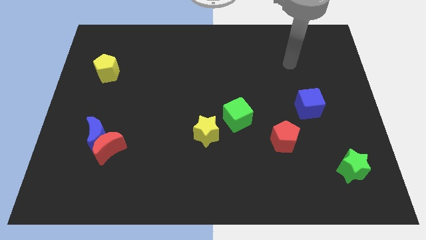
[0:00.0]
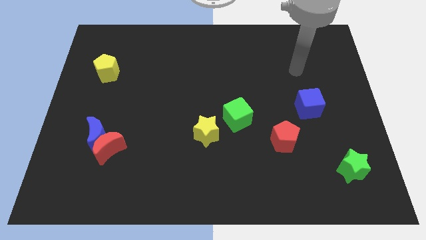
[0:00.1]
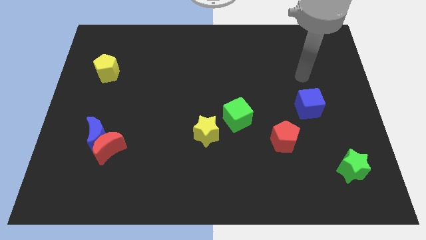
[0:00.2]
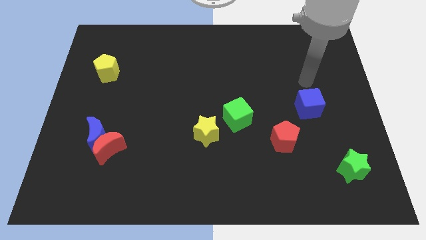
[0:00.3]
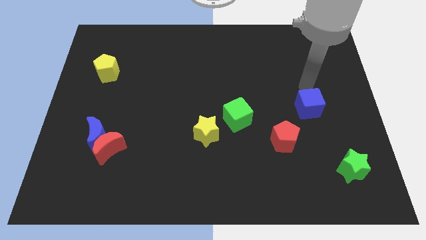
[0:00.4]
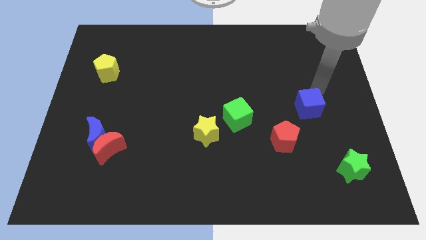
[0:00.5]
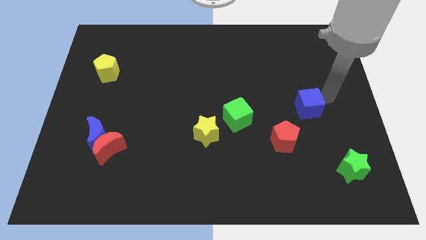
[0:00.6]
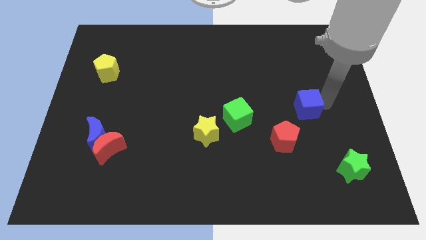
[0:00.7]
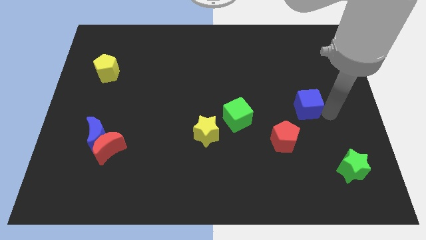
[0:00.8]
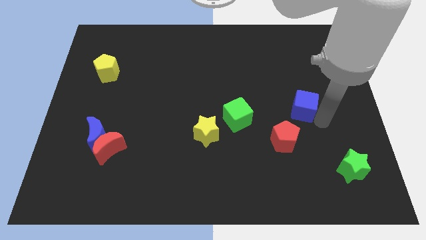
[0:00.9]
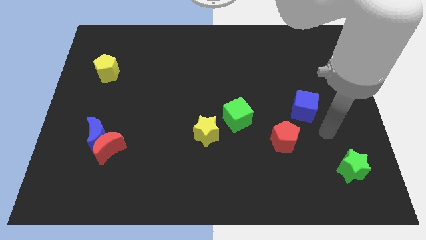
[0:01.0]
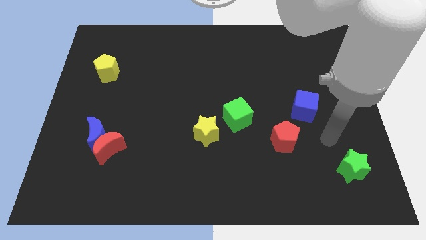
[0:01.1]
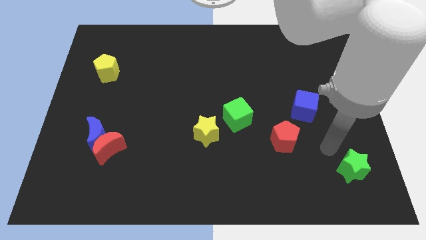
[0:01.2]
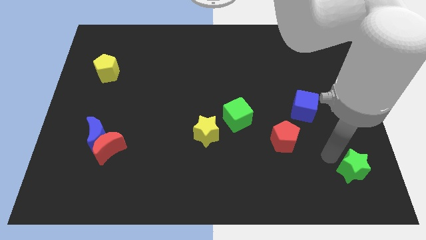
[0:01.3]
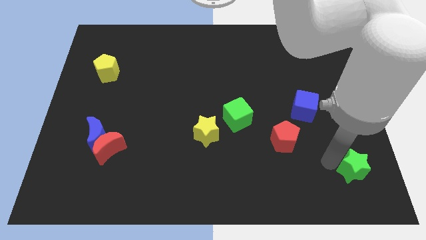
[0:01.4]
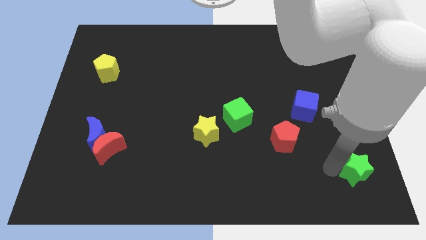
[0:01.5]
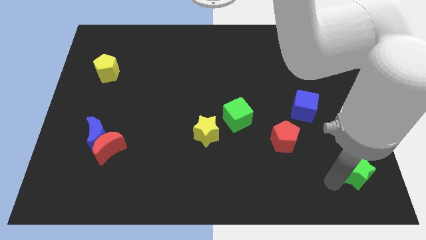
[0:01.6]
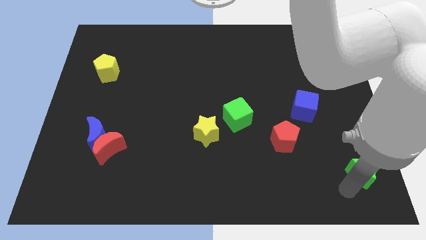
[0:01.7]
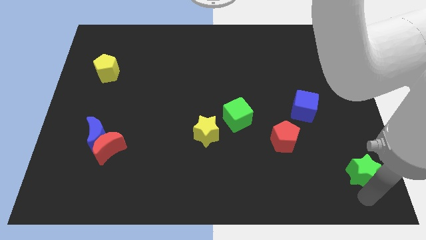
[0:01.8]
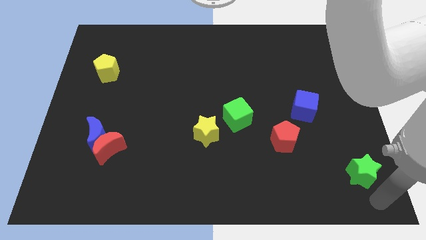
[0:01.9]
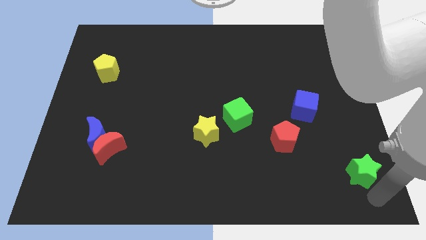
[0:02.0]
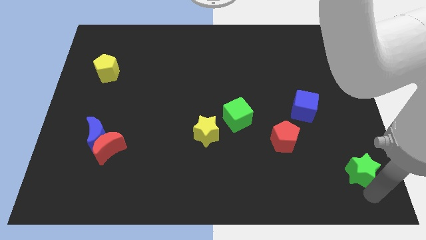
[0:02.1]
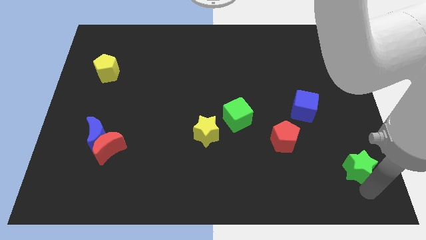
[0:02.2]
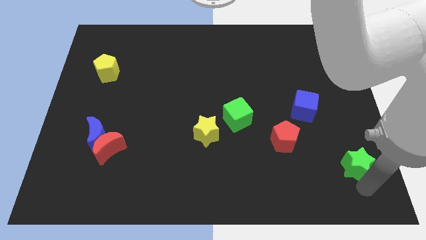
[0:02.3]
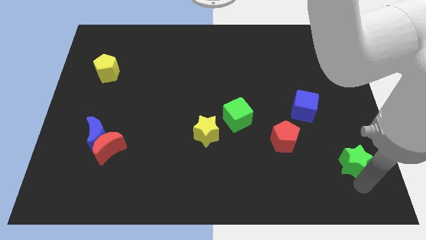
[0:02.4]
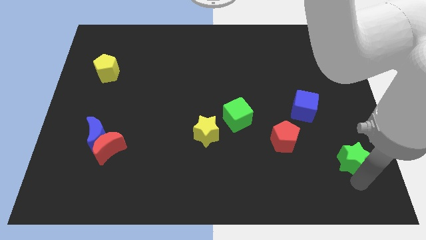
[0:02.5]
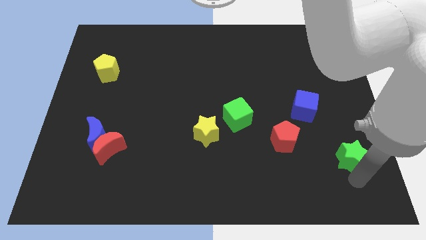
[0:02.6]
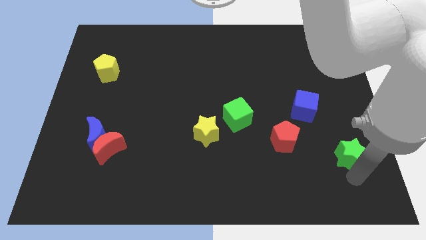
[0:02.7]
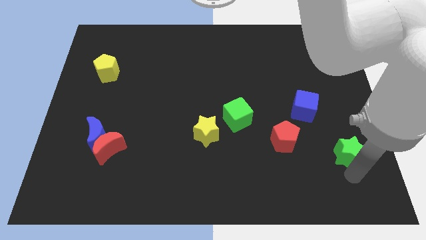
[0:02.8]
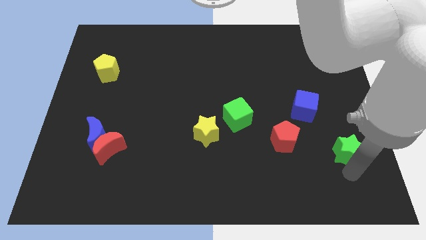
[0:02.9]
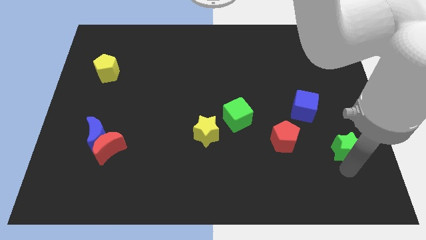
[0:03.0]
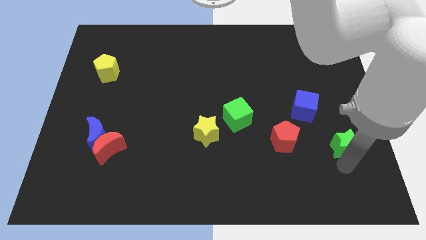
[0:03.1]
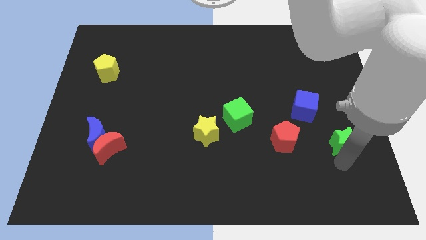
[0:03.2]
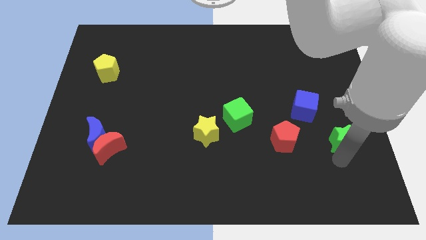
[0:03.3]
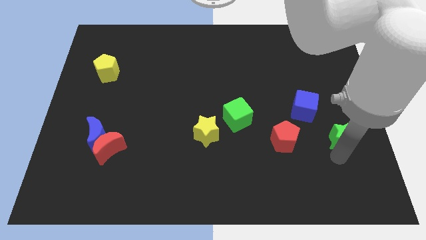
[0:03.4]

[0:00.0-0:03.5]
slightly move the green star upwards

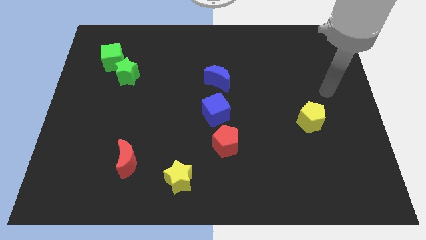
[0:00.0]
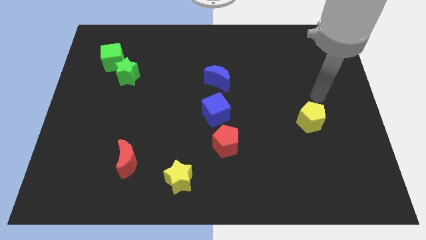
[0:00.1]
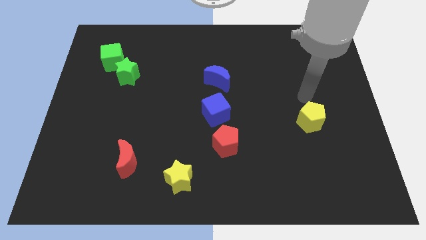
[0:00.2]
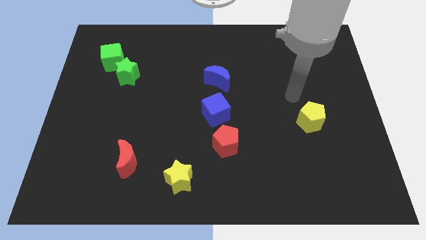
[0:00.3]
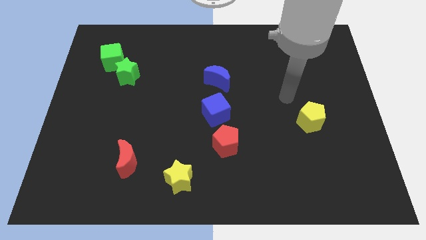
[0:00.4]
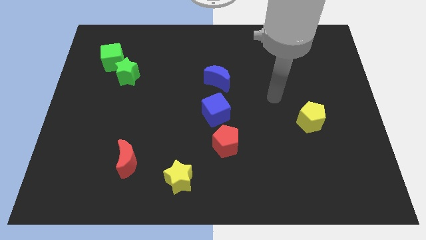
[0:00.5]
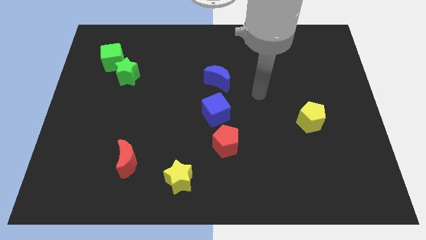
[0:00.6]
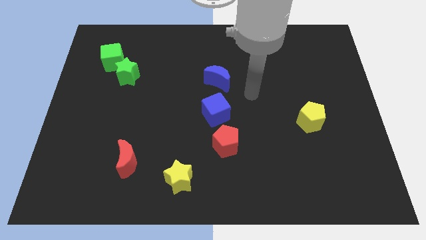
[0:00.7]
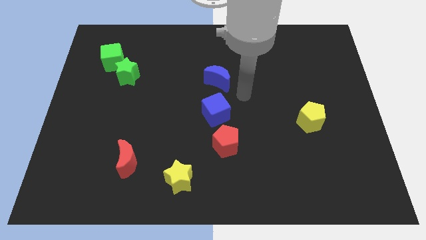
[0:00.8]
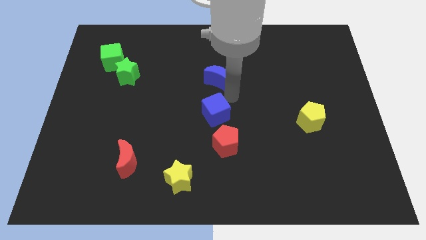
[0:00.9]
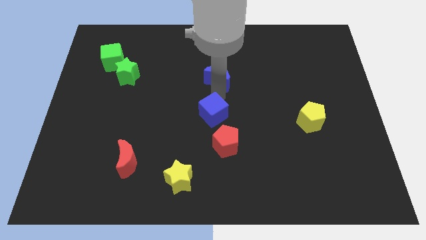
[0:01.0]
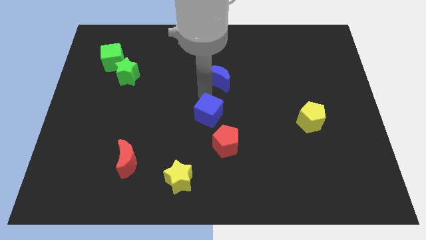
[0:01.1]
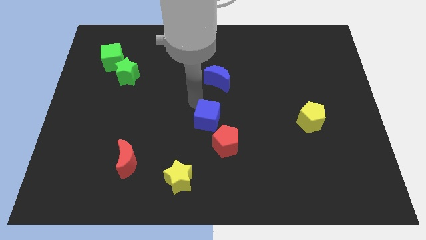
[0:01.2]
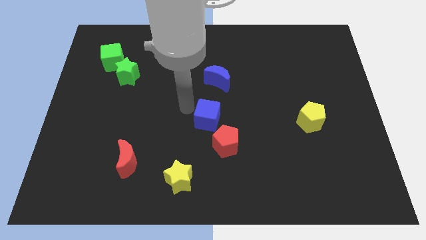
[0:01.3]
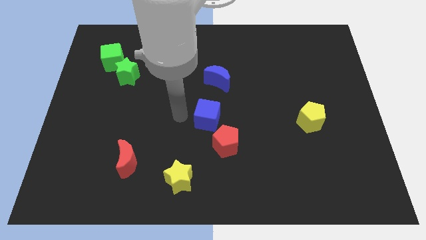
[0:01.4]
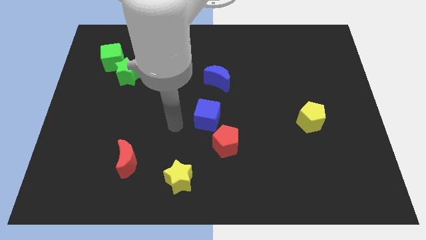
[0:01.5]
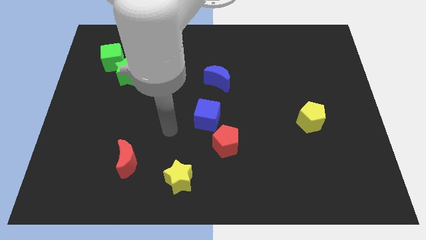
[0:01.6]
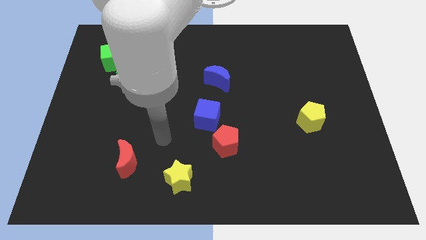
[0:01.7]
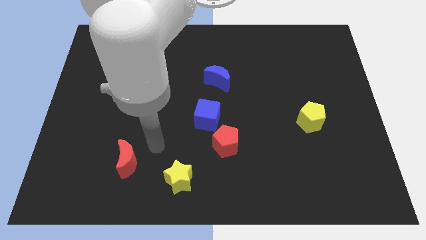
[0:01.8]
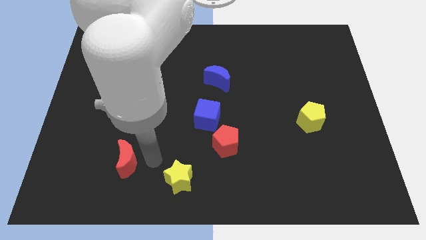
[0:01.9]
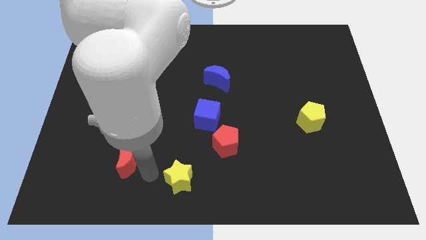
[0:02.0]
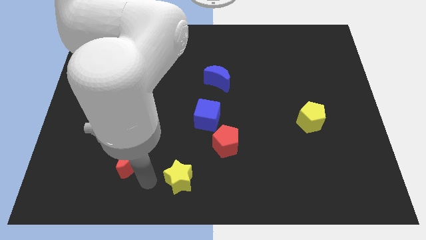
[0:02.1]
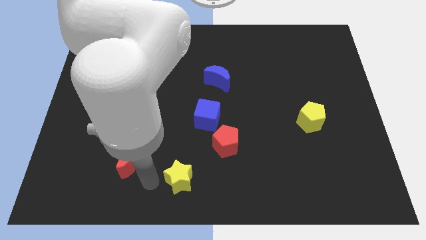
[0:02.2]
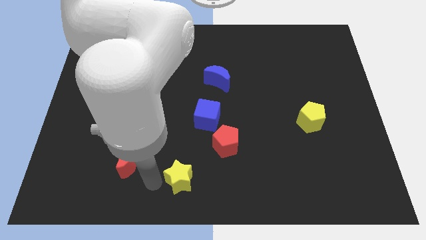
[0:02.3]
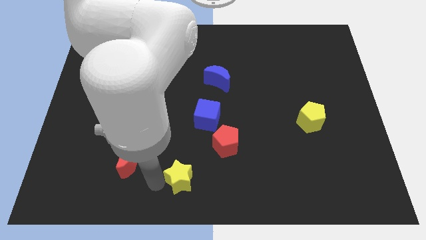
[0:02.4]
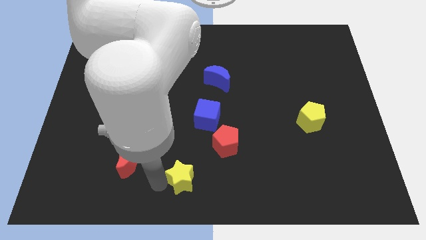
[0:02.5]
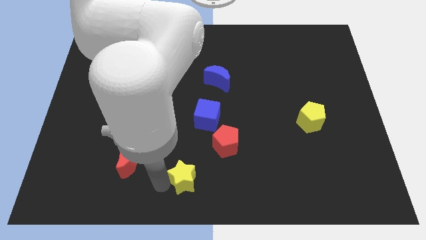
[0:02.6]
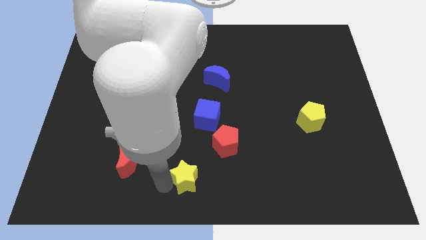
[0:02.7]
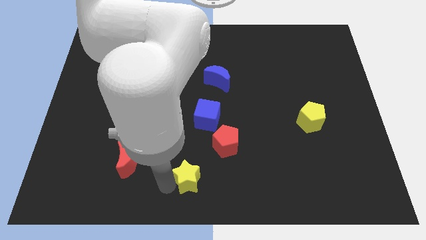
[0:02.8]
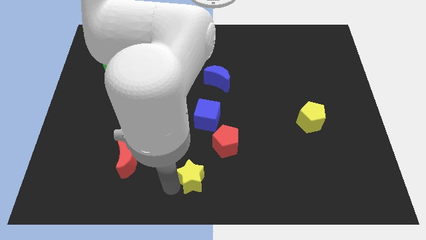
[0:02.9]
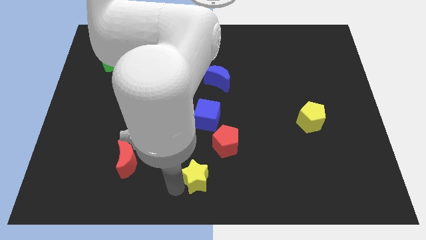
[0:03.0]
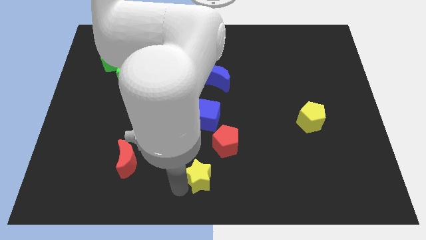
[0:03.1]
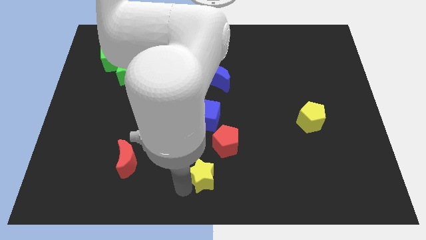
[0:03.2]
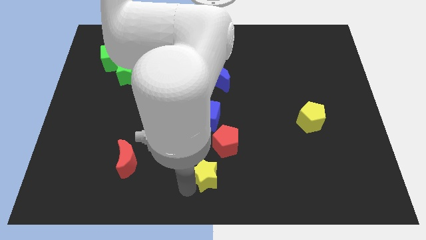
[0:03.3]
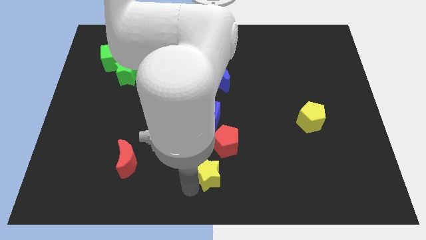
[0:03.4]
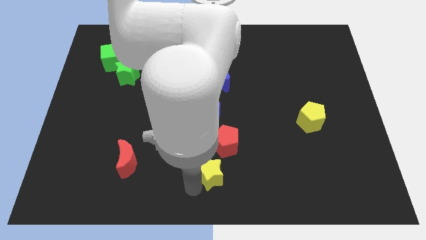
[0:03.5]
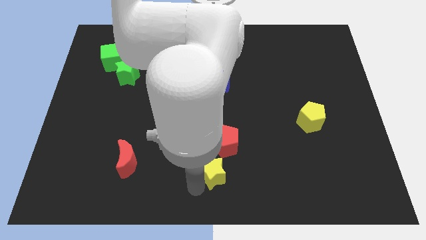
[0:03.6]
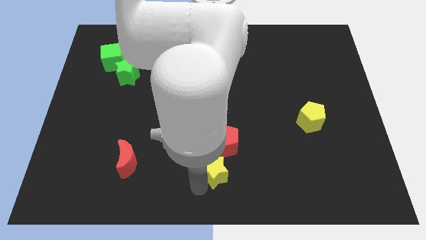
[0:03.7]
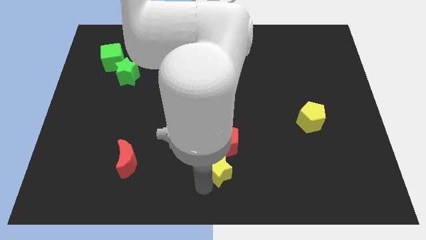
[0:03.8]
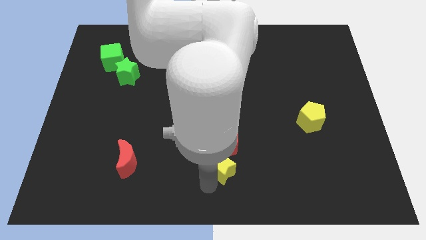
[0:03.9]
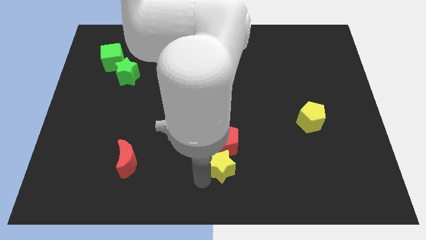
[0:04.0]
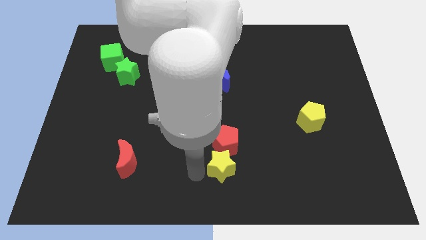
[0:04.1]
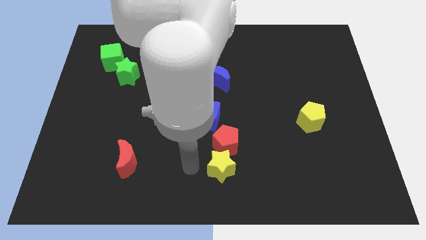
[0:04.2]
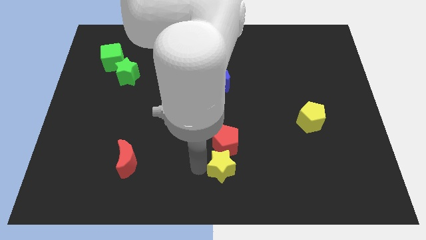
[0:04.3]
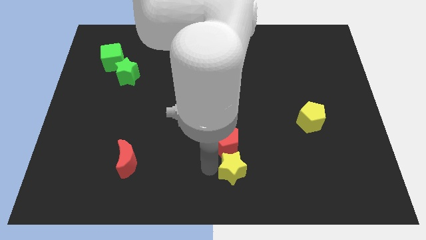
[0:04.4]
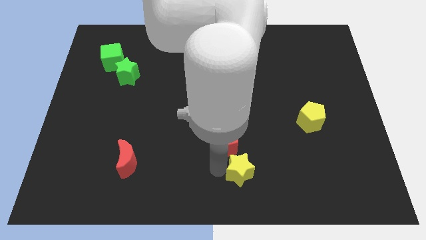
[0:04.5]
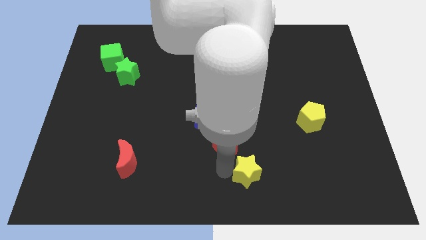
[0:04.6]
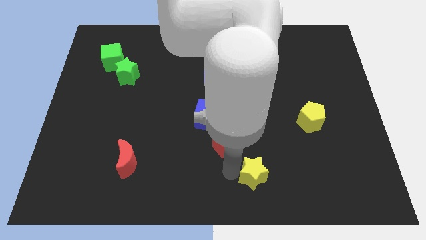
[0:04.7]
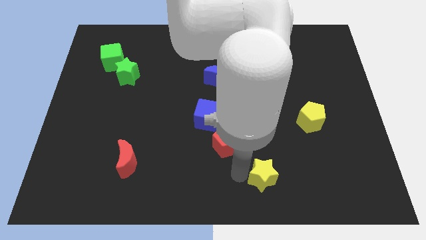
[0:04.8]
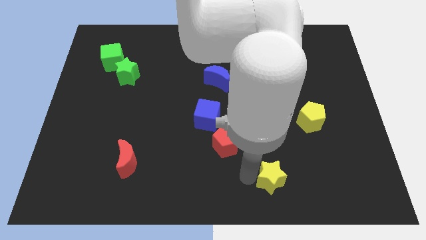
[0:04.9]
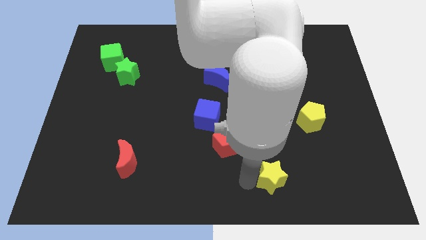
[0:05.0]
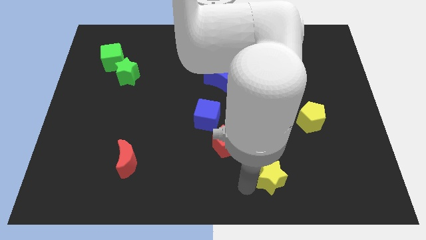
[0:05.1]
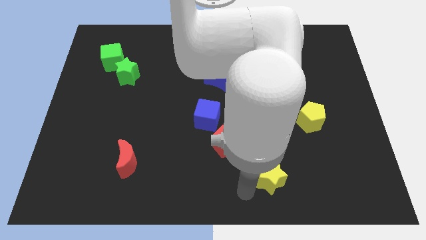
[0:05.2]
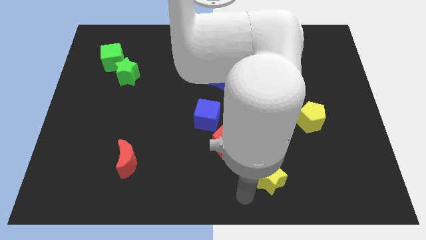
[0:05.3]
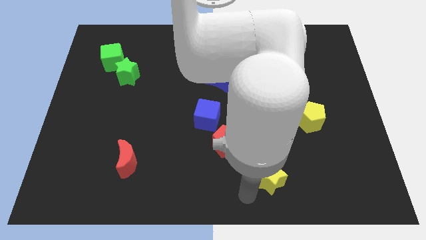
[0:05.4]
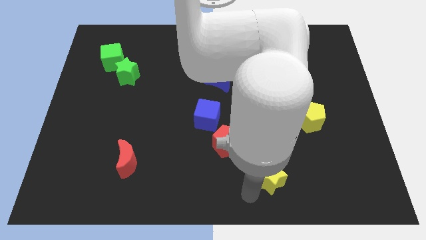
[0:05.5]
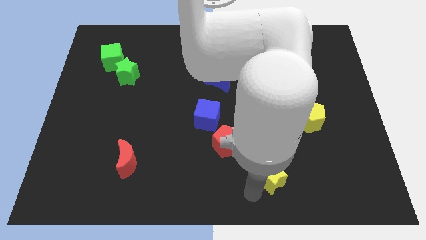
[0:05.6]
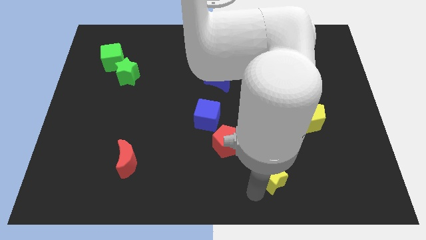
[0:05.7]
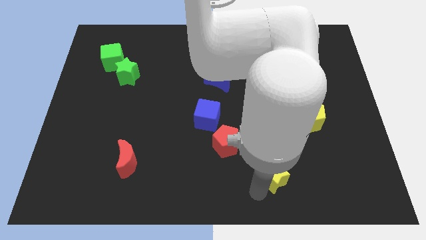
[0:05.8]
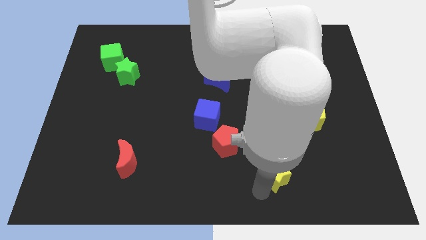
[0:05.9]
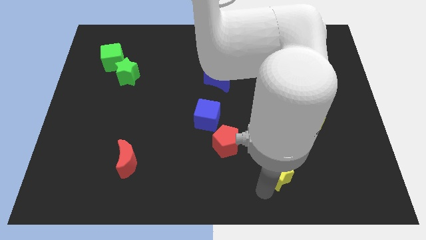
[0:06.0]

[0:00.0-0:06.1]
push the yellow star right
